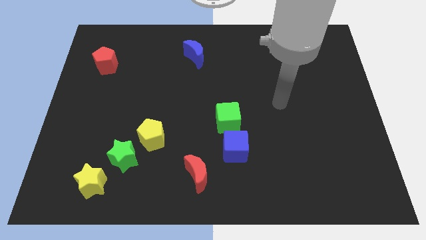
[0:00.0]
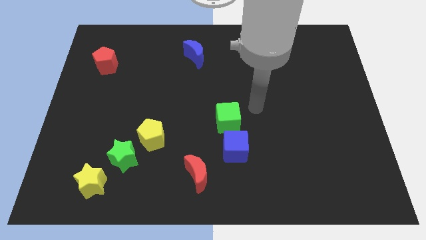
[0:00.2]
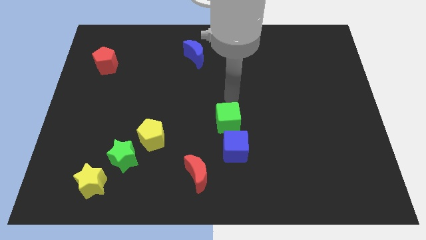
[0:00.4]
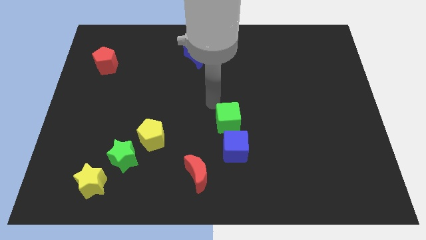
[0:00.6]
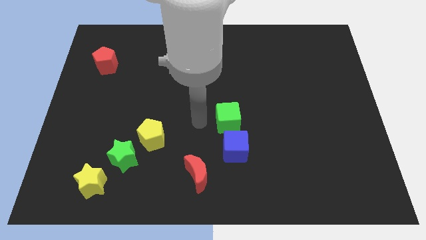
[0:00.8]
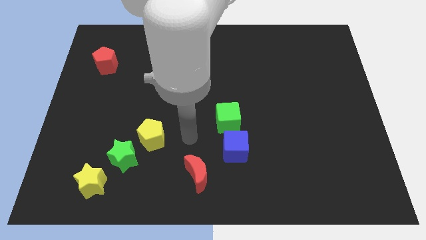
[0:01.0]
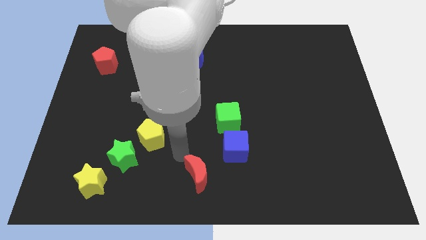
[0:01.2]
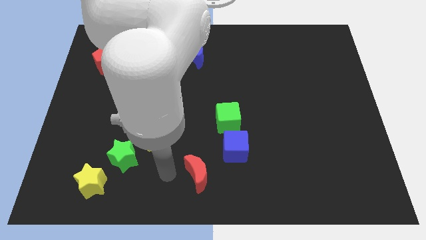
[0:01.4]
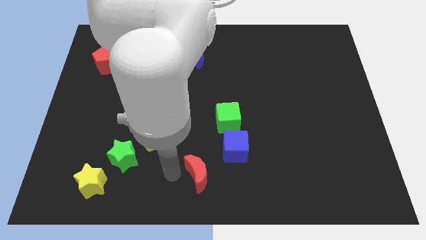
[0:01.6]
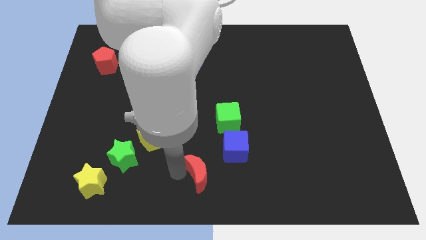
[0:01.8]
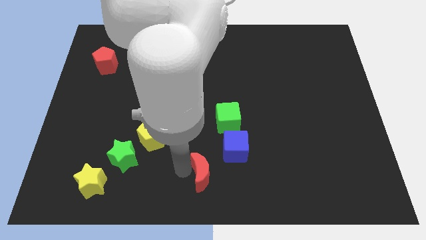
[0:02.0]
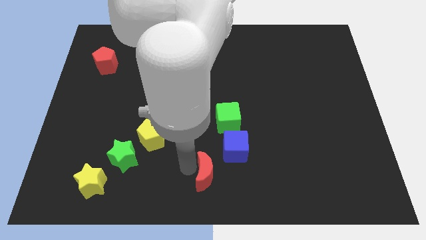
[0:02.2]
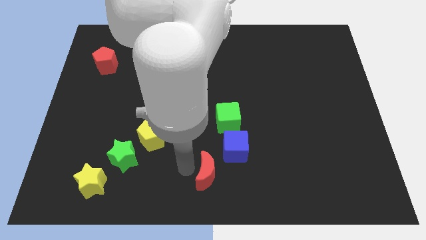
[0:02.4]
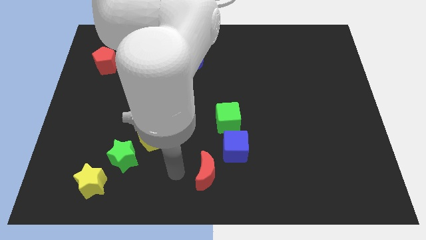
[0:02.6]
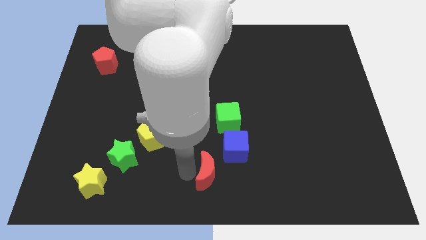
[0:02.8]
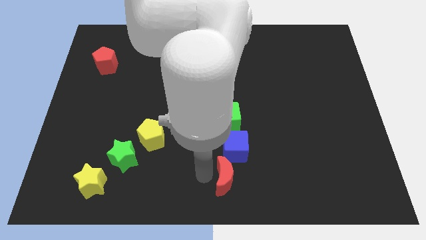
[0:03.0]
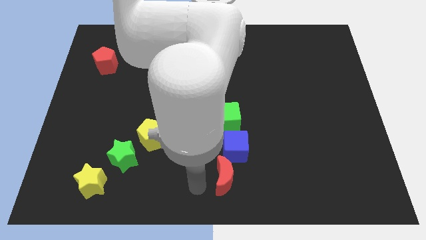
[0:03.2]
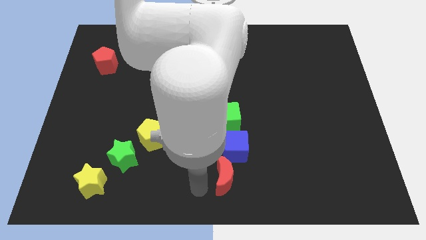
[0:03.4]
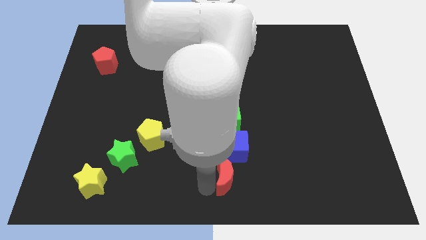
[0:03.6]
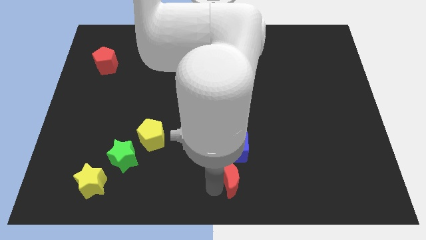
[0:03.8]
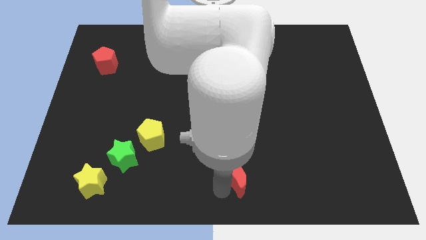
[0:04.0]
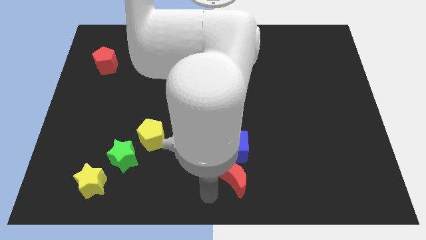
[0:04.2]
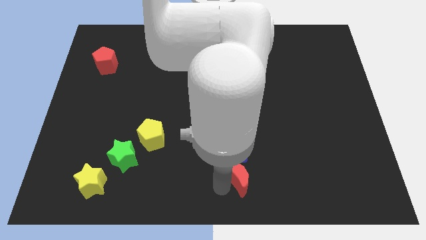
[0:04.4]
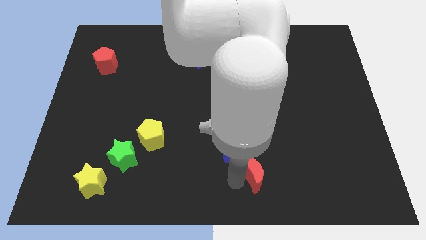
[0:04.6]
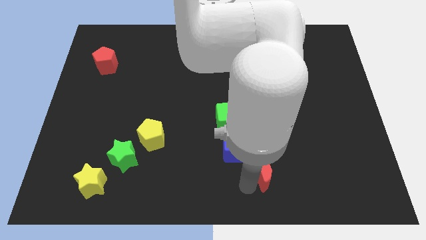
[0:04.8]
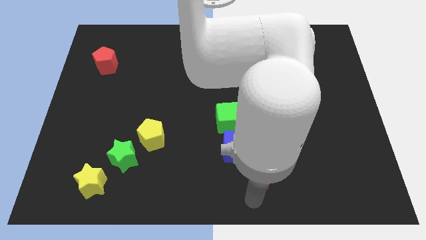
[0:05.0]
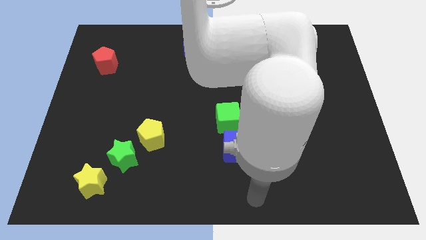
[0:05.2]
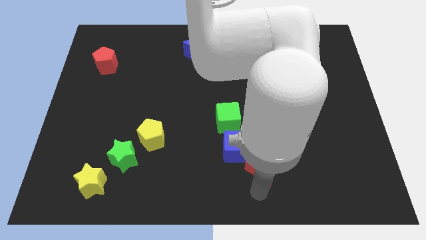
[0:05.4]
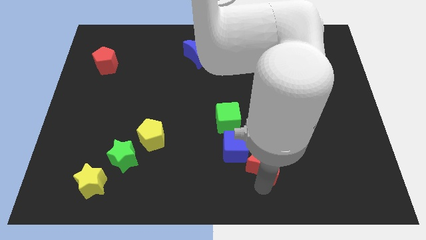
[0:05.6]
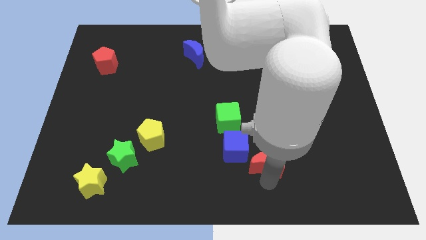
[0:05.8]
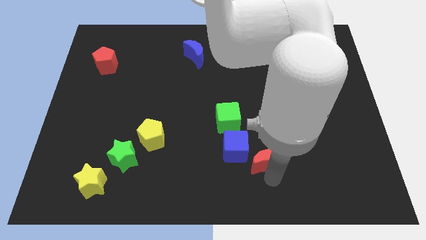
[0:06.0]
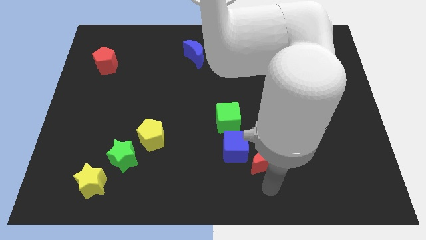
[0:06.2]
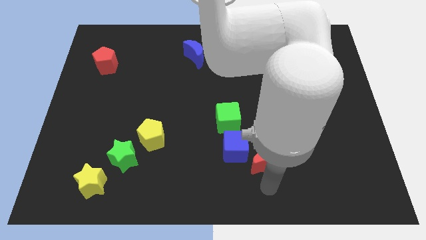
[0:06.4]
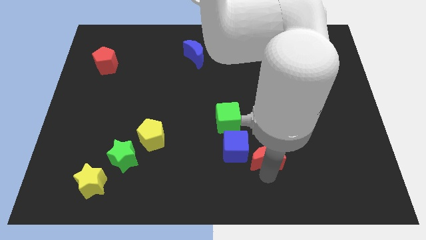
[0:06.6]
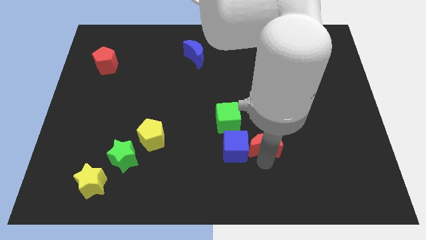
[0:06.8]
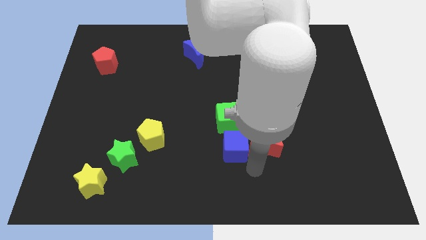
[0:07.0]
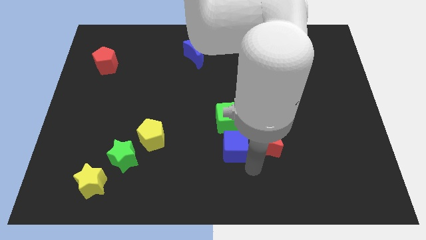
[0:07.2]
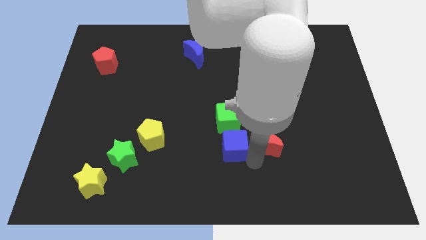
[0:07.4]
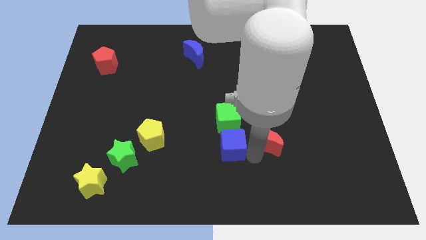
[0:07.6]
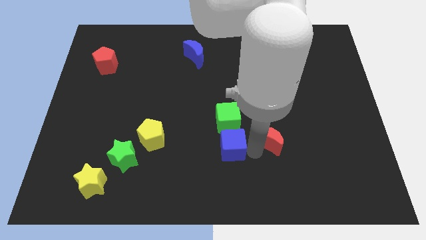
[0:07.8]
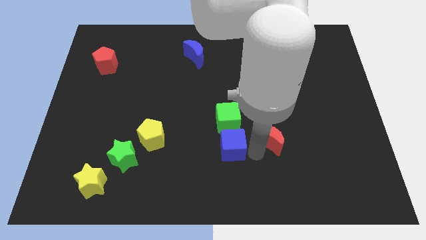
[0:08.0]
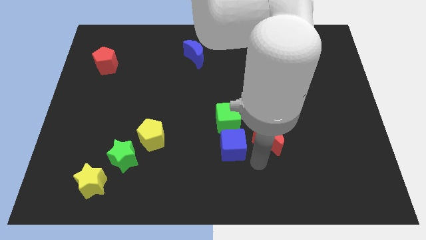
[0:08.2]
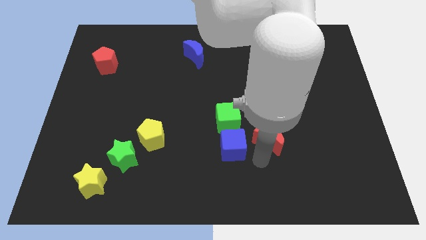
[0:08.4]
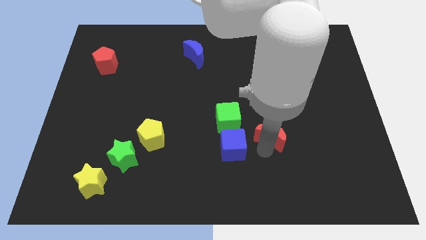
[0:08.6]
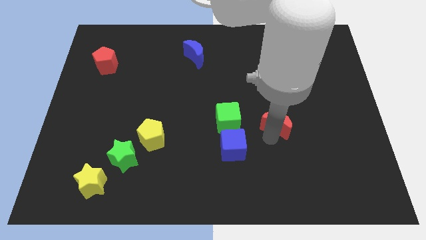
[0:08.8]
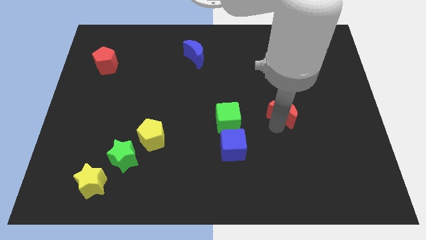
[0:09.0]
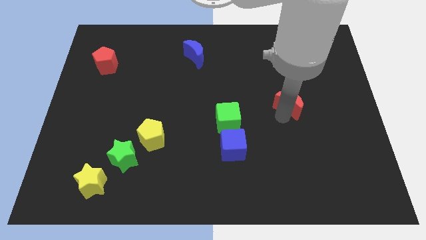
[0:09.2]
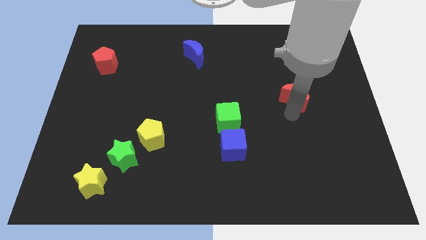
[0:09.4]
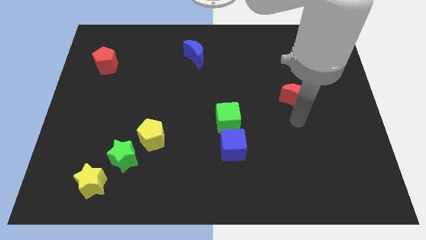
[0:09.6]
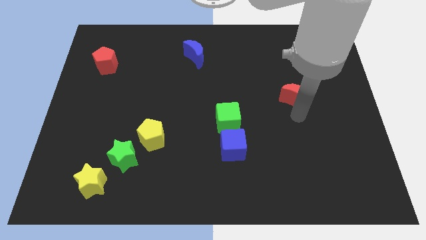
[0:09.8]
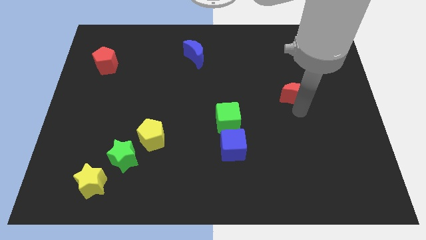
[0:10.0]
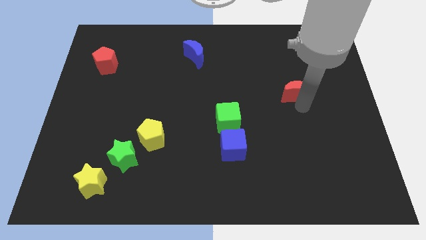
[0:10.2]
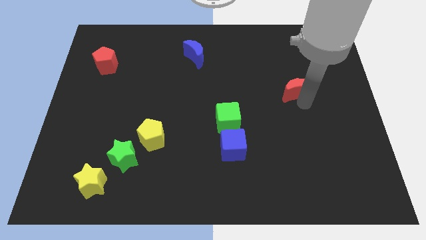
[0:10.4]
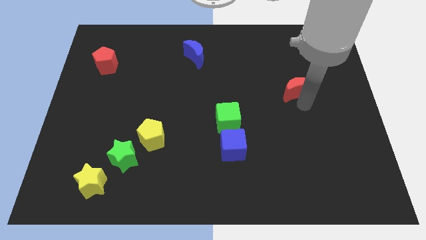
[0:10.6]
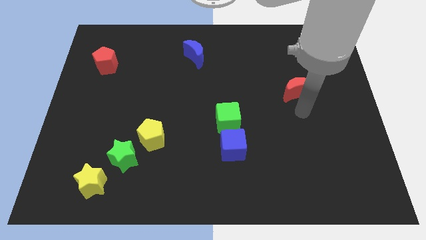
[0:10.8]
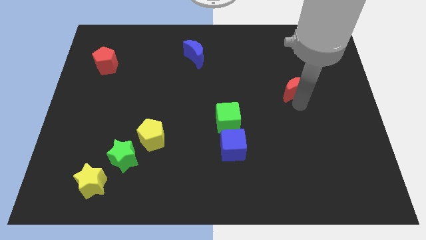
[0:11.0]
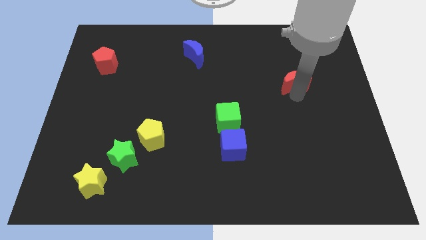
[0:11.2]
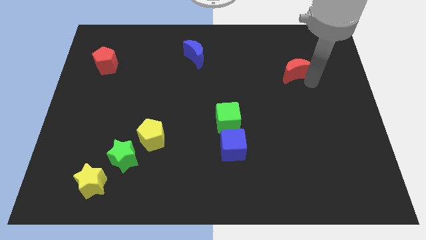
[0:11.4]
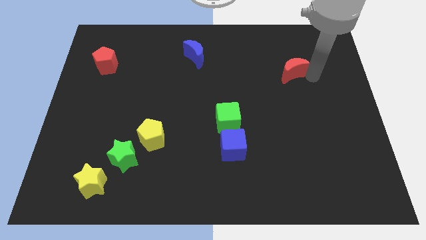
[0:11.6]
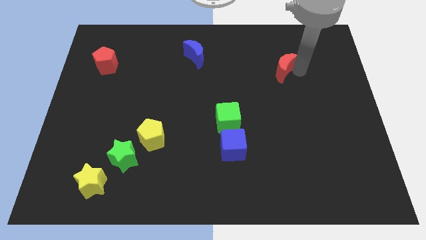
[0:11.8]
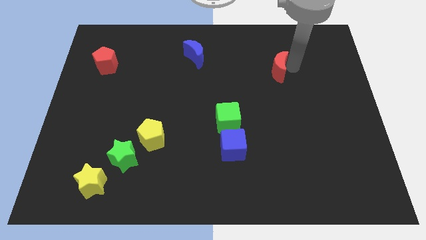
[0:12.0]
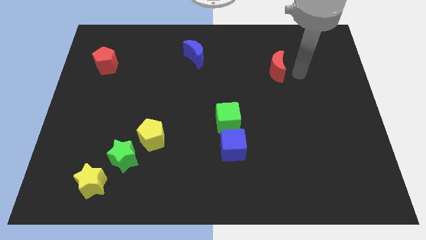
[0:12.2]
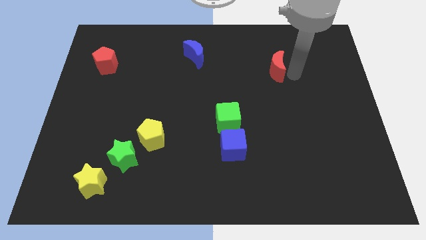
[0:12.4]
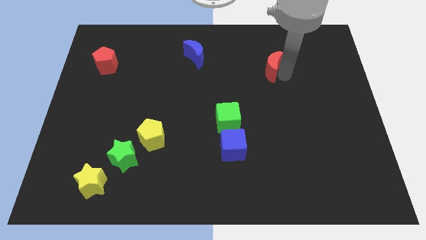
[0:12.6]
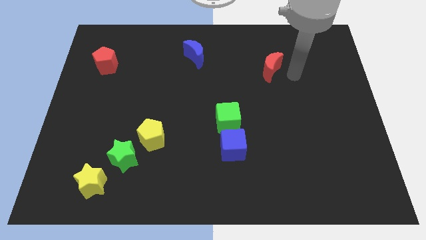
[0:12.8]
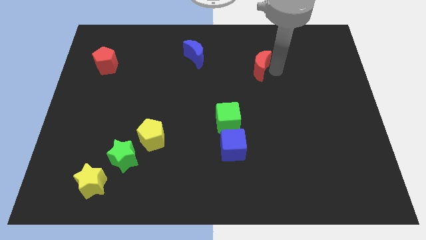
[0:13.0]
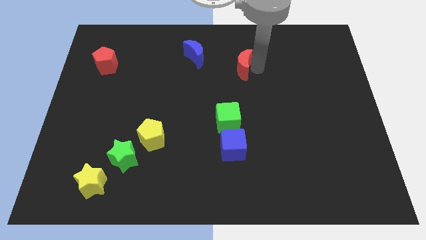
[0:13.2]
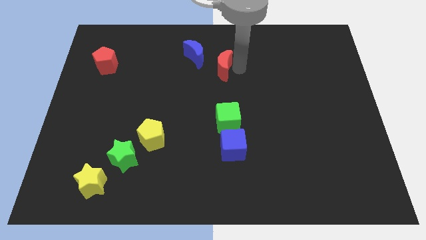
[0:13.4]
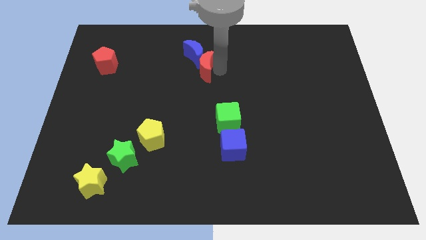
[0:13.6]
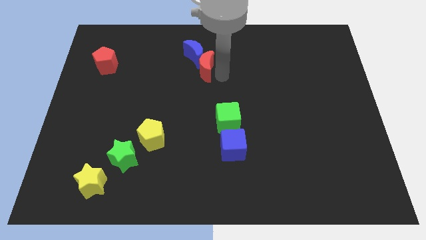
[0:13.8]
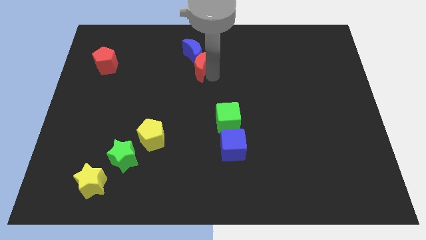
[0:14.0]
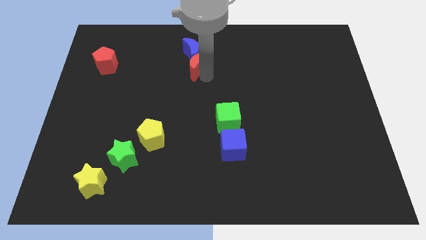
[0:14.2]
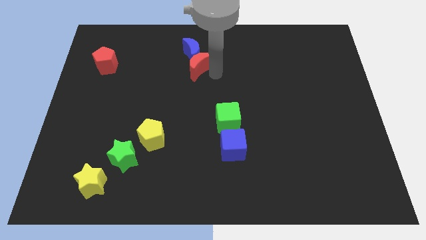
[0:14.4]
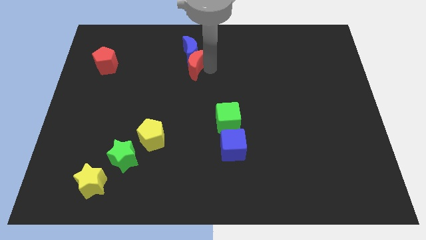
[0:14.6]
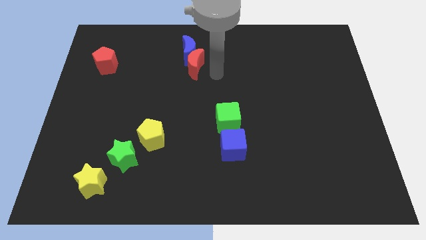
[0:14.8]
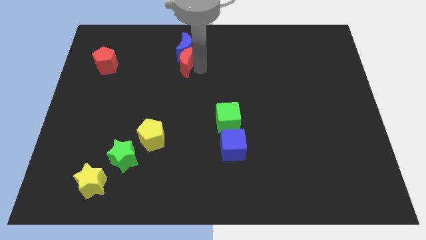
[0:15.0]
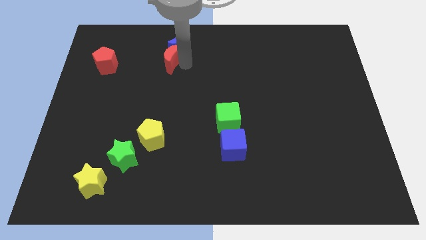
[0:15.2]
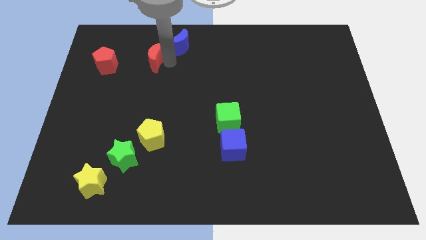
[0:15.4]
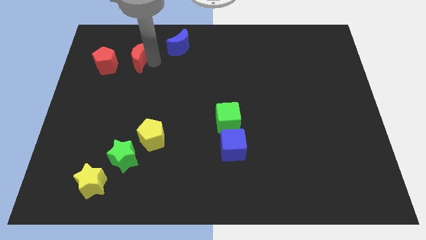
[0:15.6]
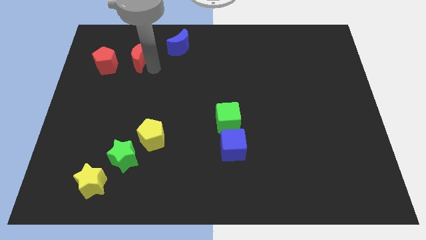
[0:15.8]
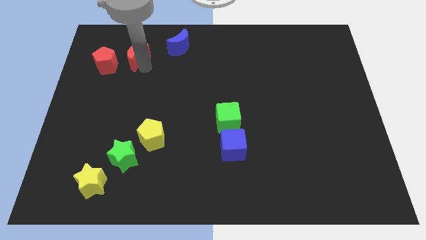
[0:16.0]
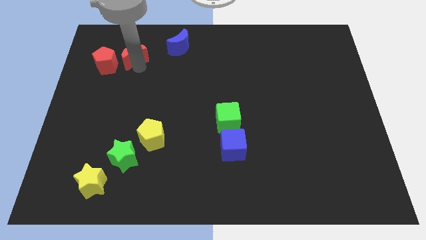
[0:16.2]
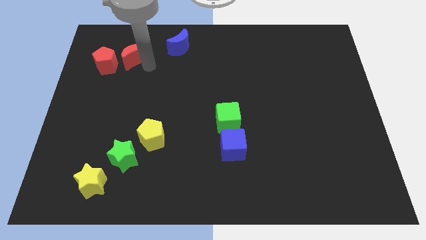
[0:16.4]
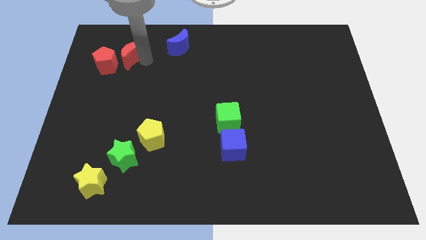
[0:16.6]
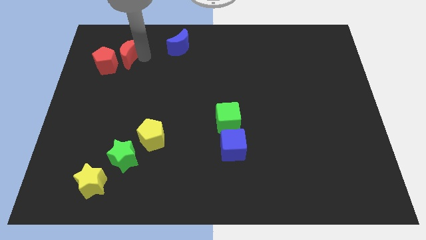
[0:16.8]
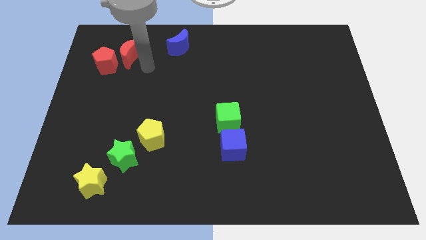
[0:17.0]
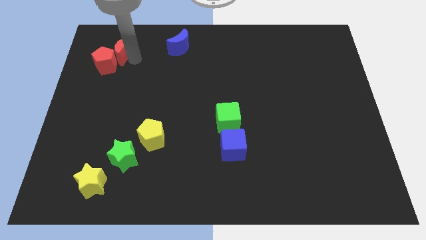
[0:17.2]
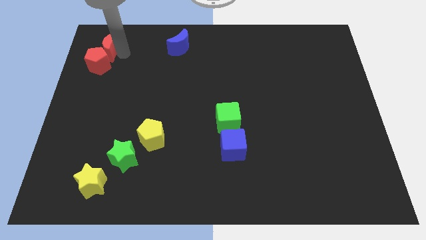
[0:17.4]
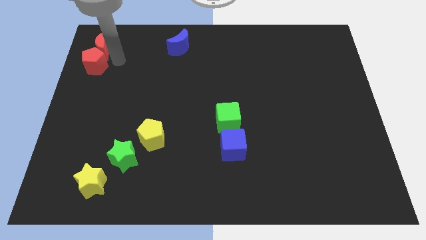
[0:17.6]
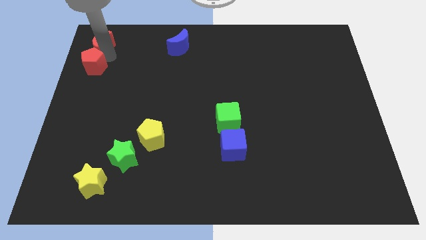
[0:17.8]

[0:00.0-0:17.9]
put the red moon to the top left
